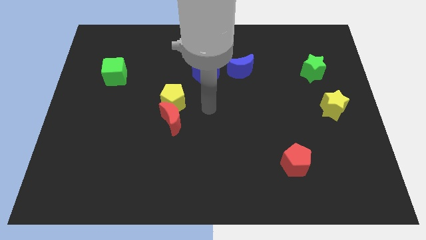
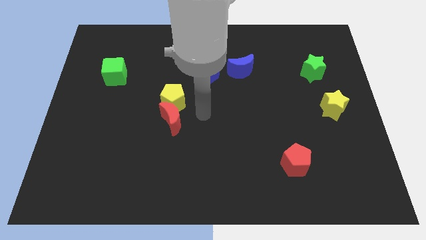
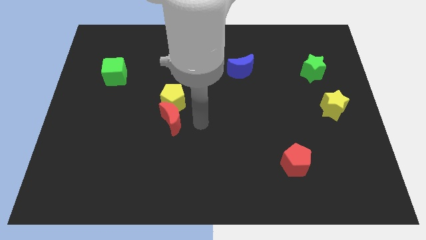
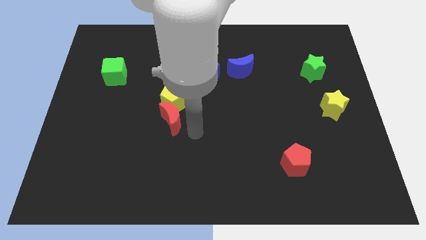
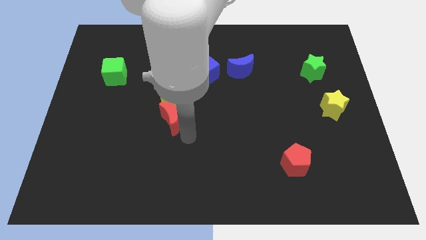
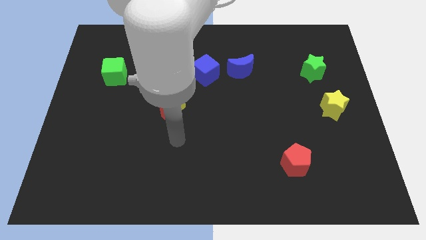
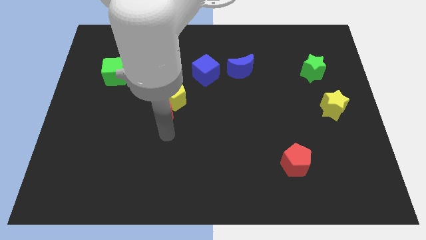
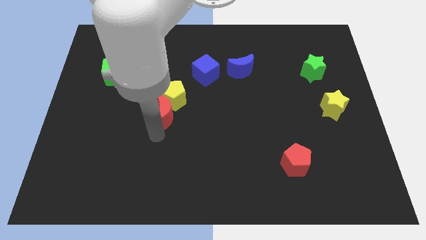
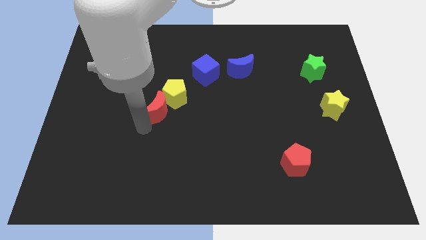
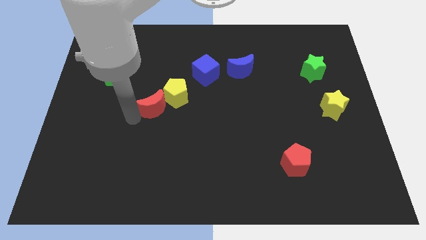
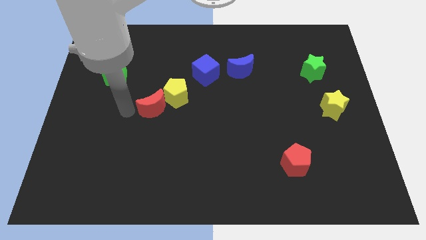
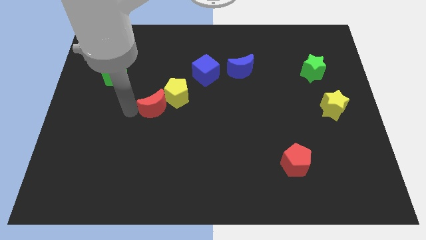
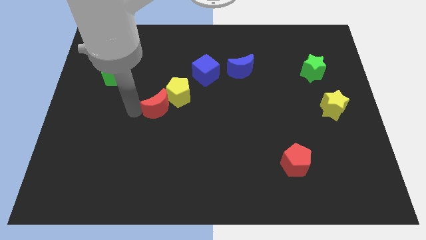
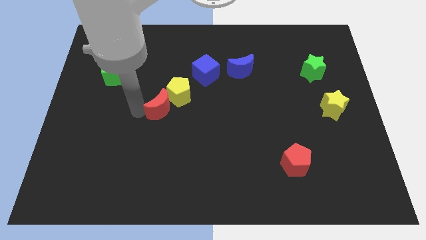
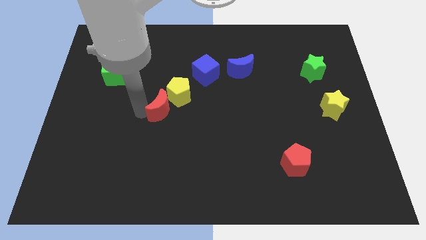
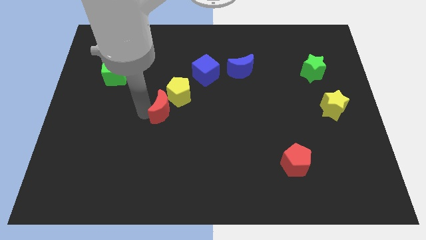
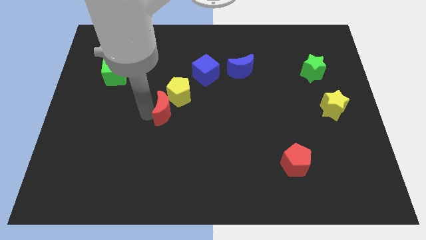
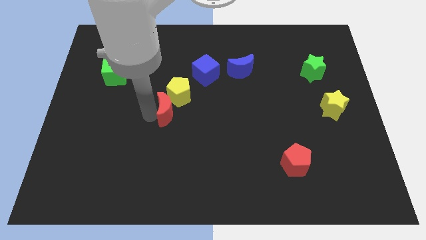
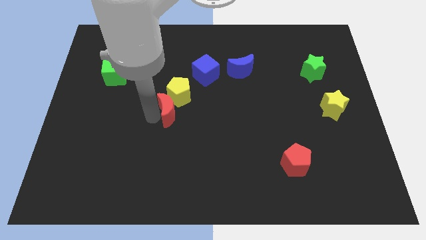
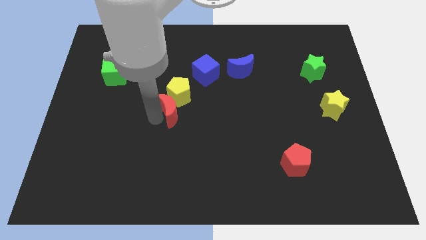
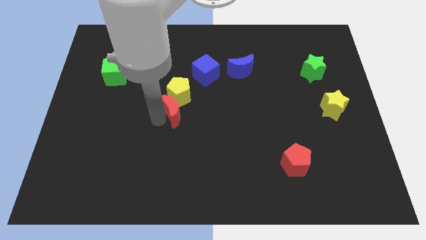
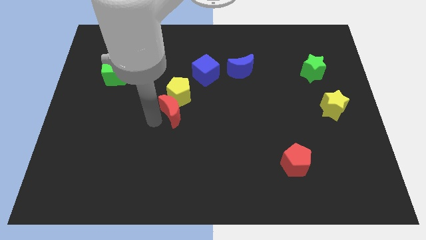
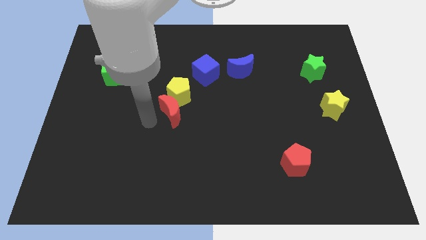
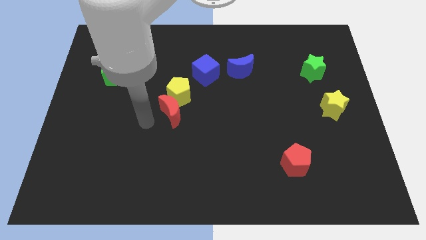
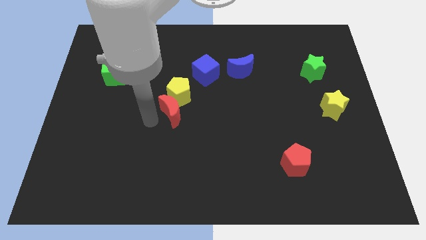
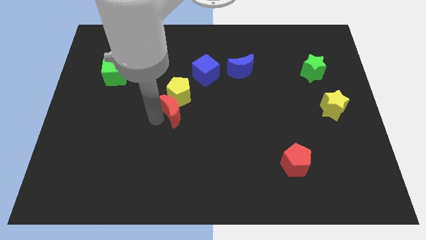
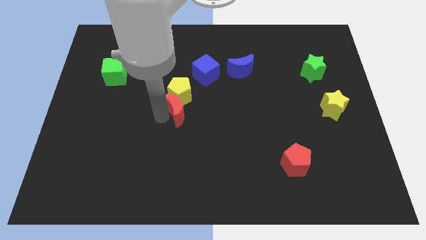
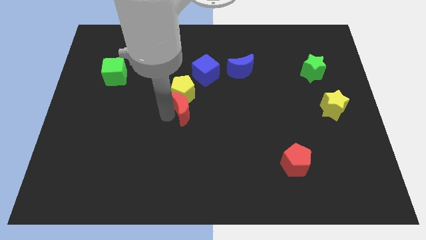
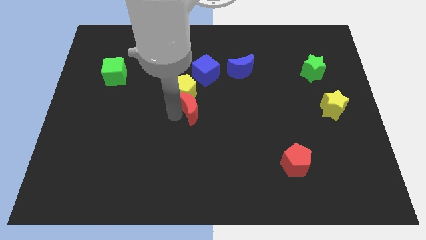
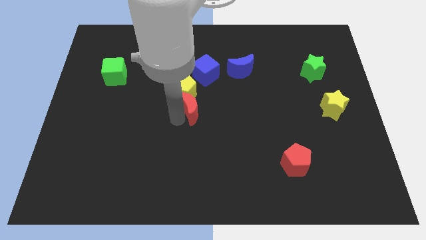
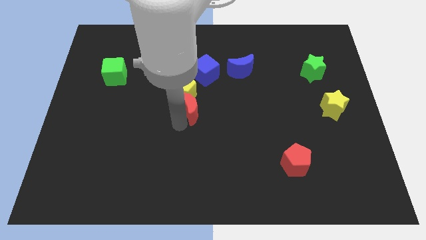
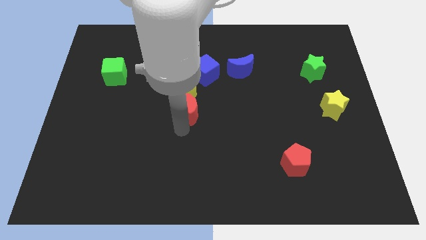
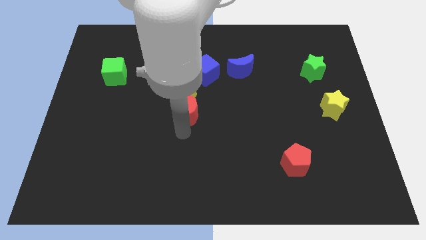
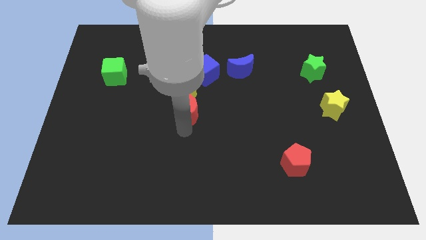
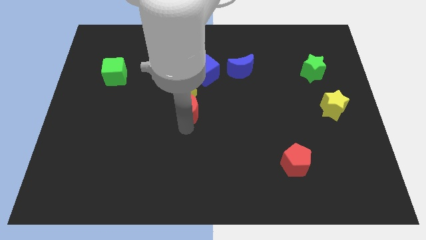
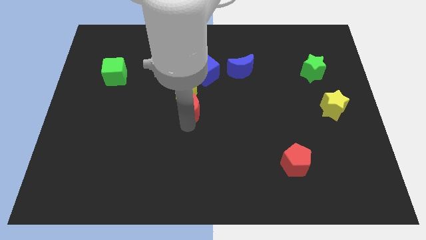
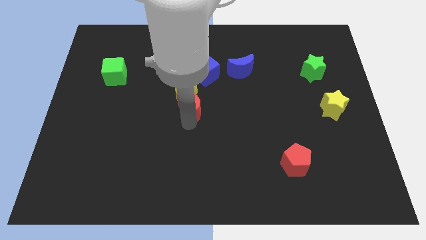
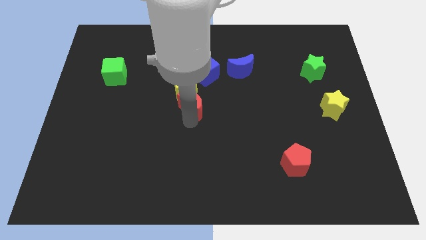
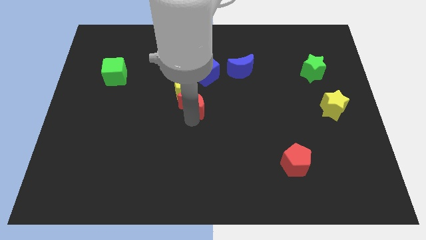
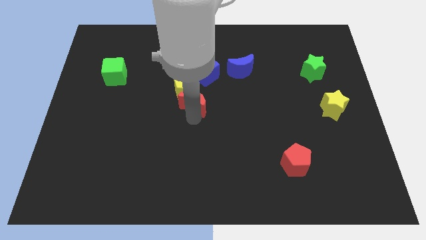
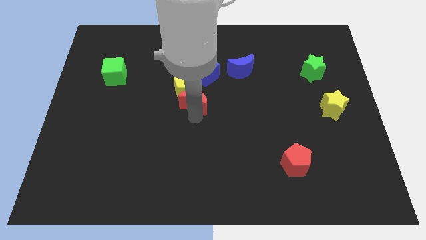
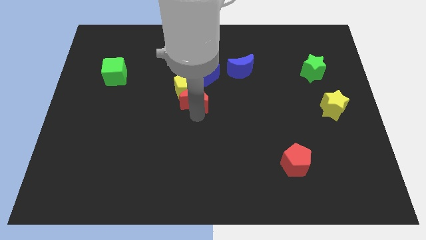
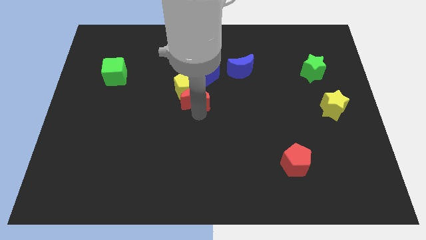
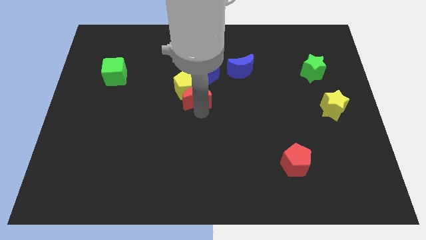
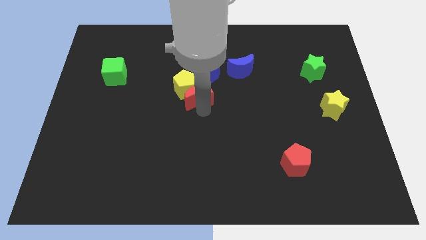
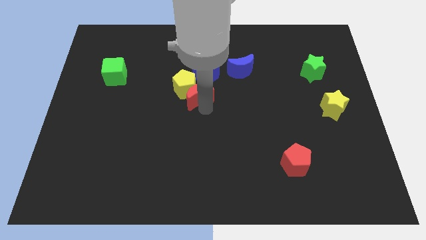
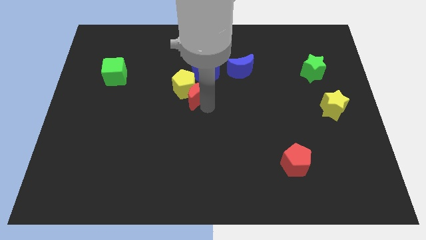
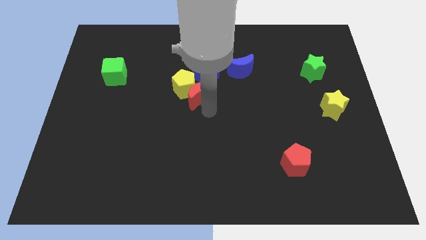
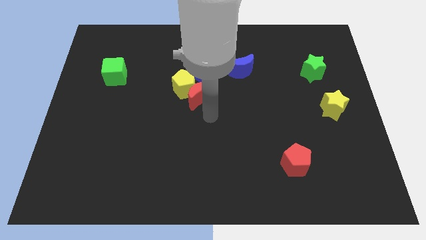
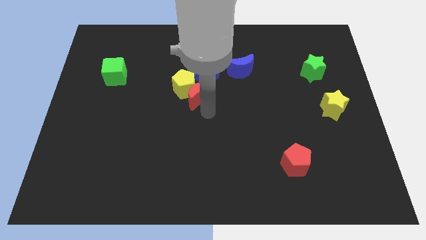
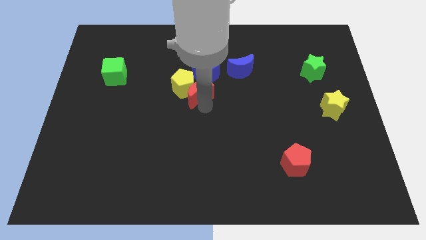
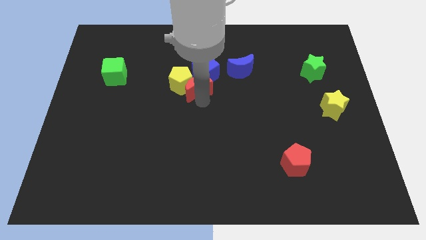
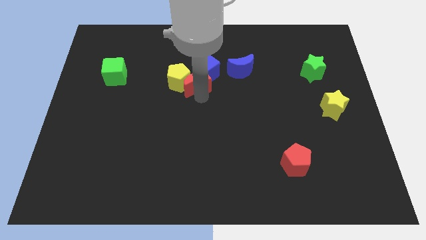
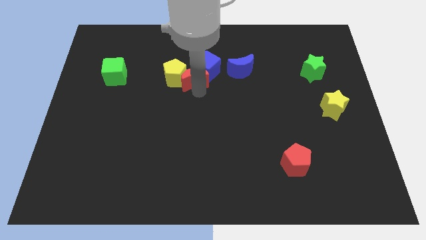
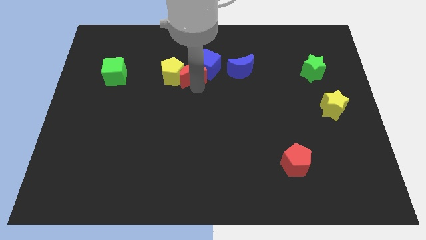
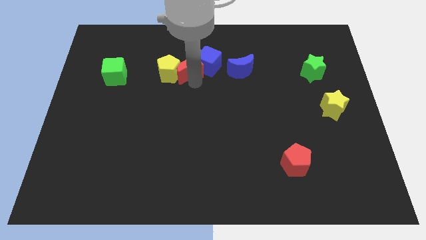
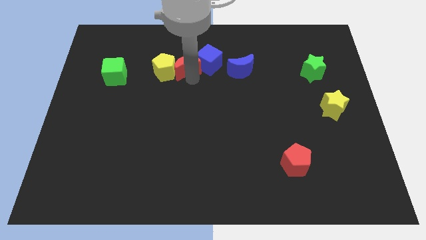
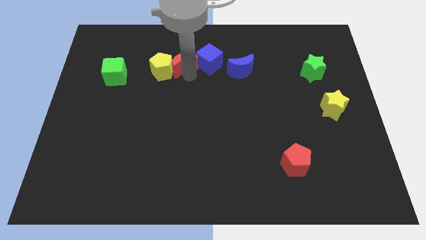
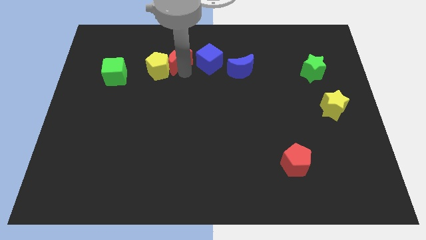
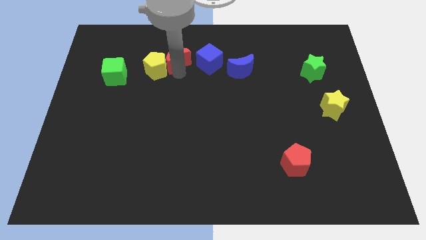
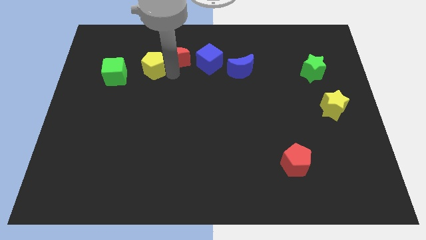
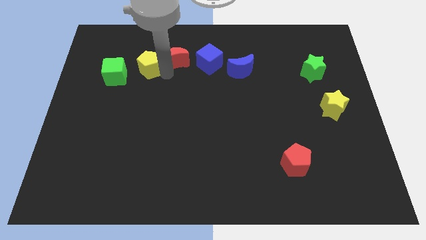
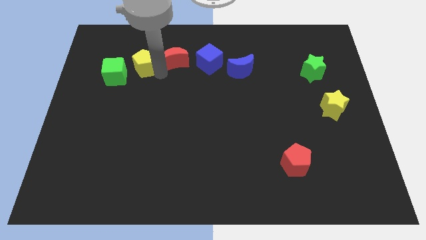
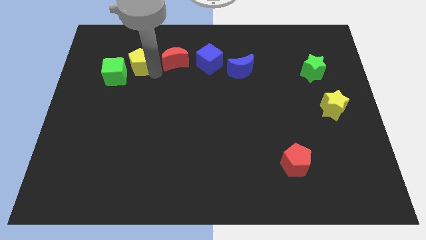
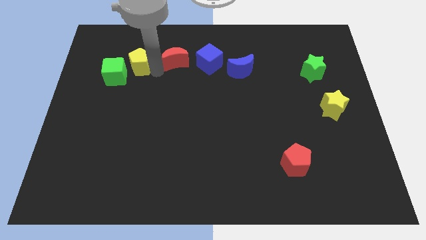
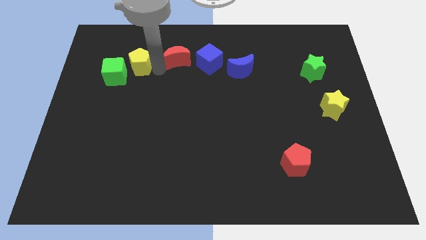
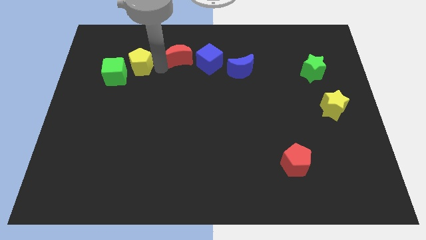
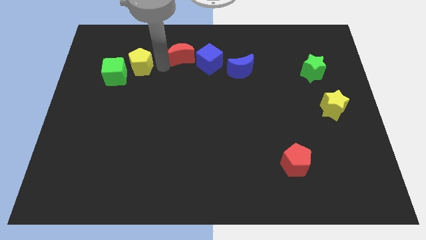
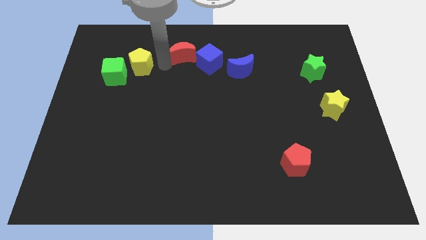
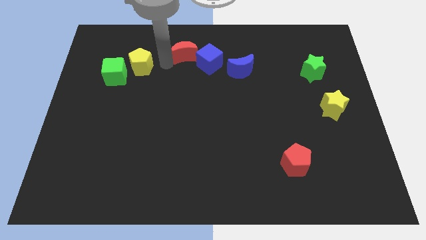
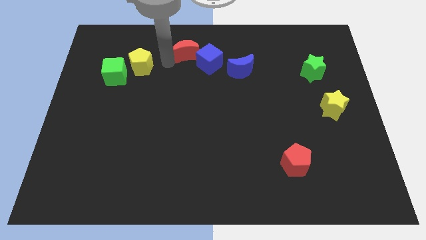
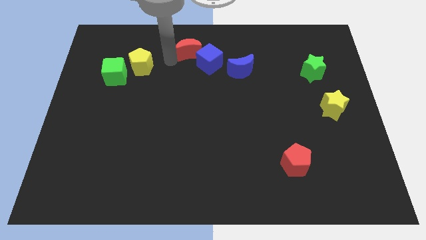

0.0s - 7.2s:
slide the red moon to the towards your base
